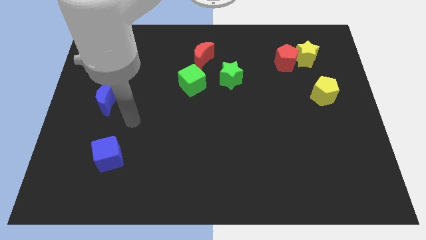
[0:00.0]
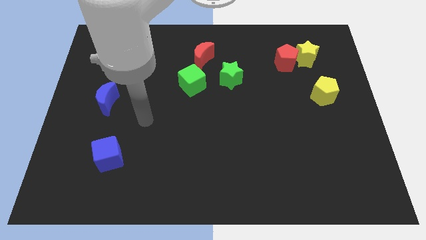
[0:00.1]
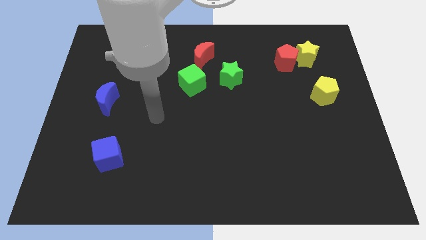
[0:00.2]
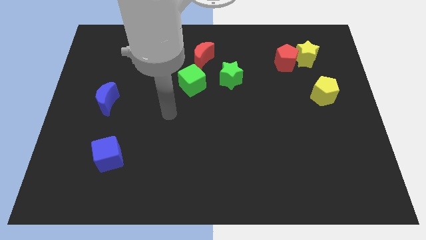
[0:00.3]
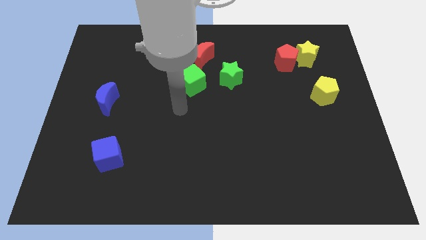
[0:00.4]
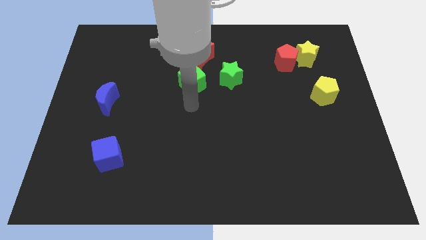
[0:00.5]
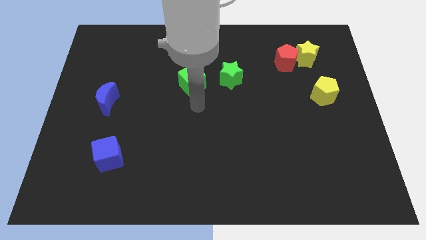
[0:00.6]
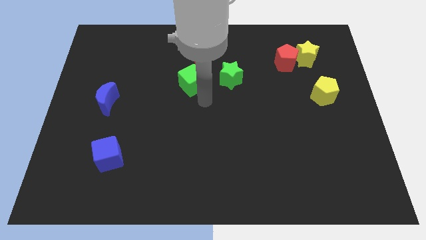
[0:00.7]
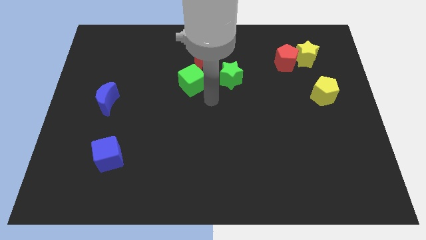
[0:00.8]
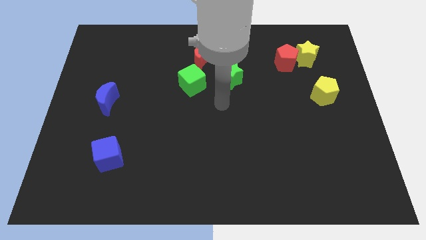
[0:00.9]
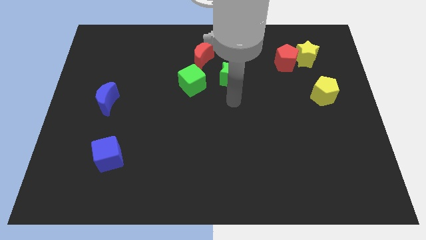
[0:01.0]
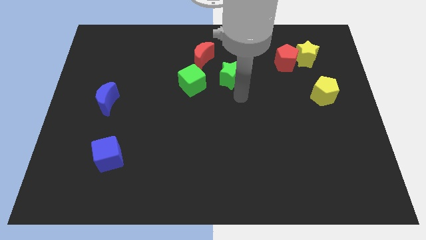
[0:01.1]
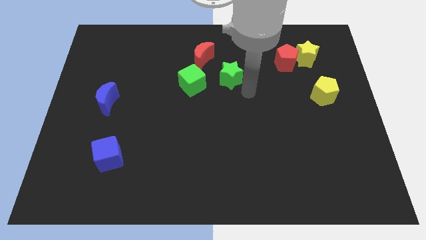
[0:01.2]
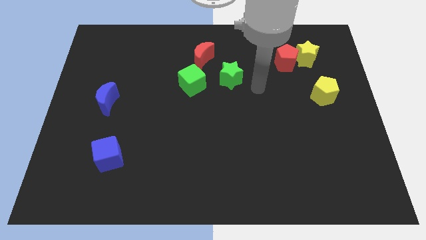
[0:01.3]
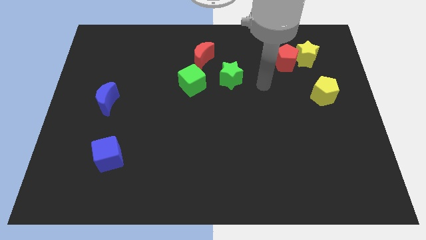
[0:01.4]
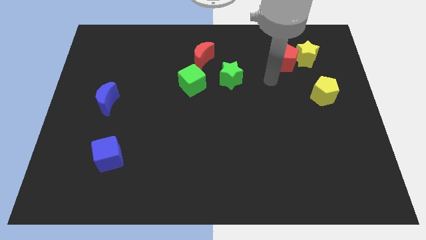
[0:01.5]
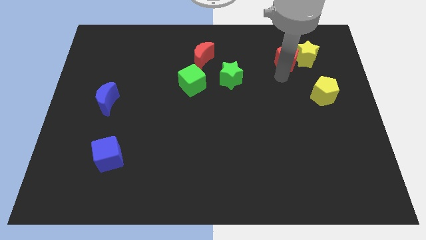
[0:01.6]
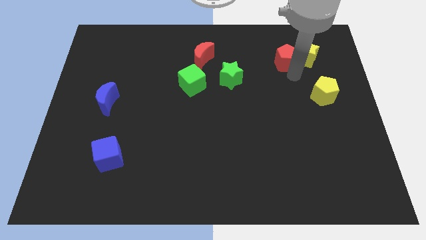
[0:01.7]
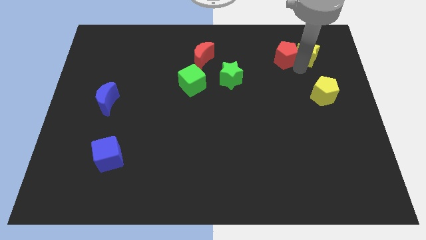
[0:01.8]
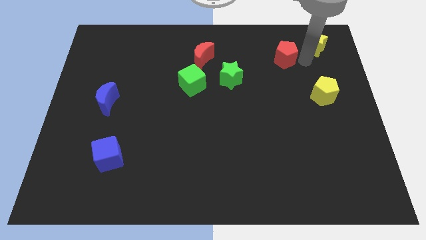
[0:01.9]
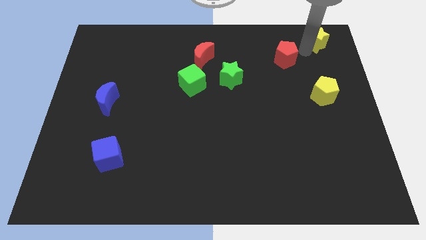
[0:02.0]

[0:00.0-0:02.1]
pull the red pentagon apart from the yellow star

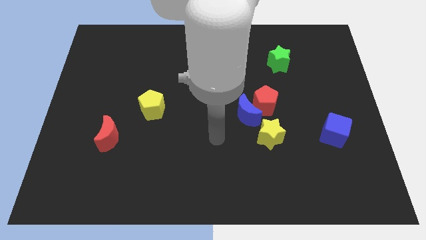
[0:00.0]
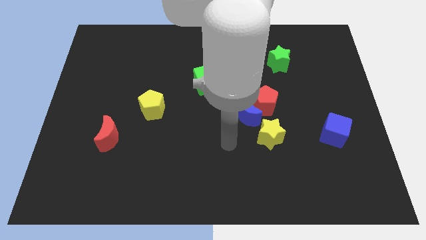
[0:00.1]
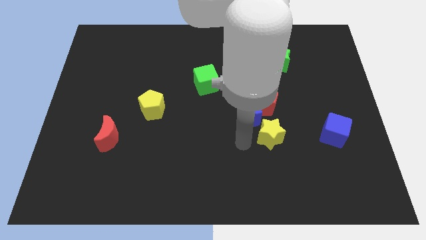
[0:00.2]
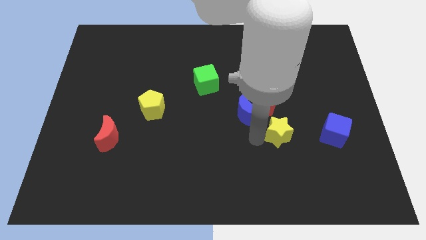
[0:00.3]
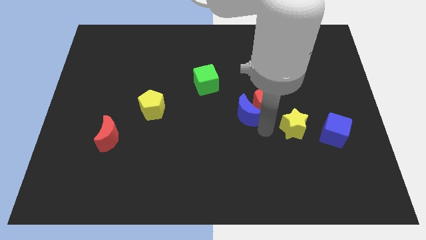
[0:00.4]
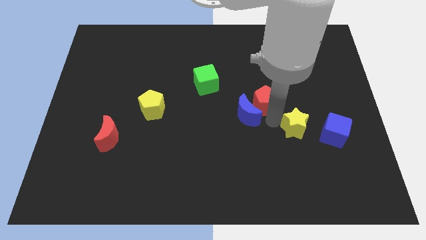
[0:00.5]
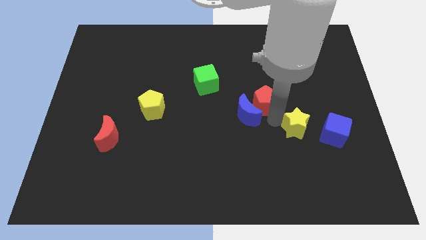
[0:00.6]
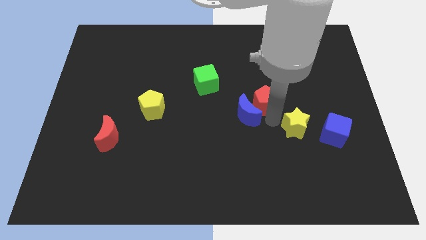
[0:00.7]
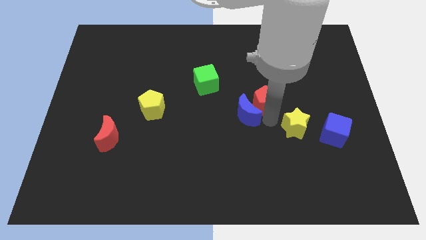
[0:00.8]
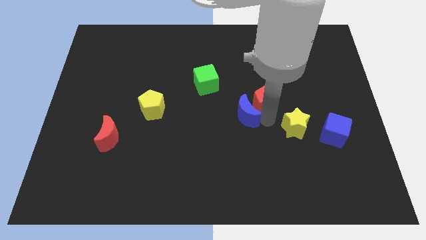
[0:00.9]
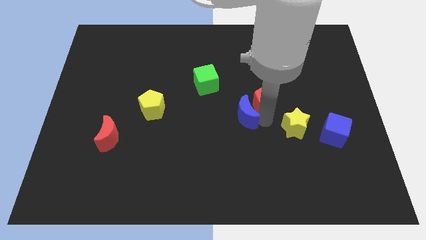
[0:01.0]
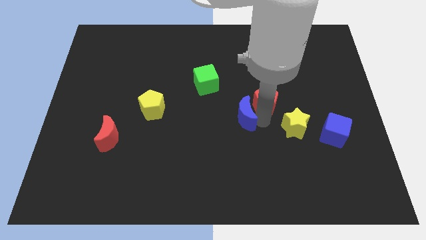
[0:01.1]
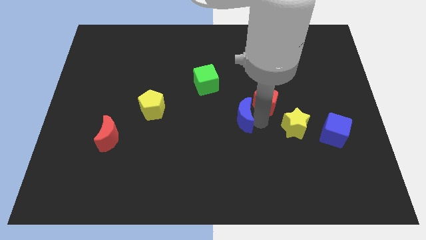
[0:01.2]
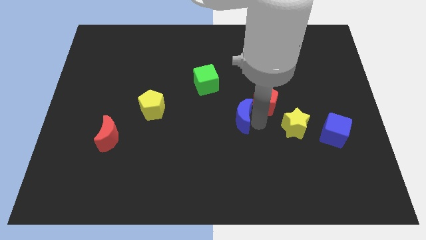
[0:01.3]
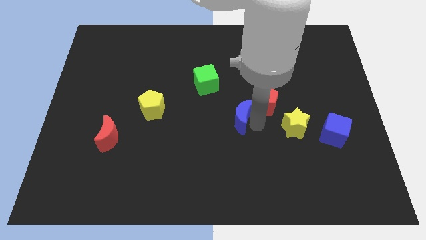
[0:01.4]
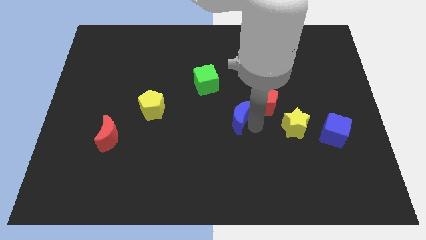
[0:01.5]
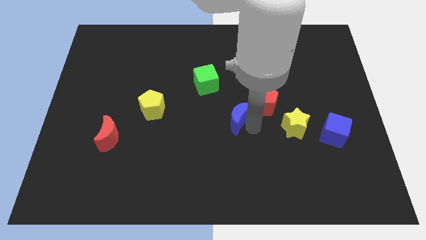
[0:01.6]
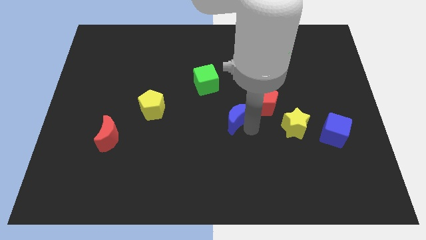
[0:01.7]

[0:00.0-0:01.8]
separate the blue moon from the red pentagon and yellow star

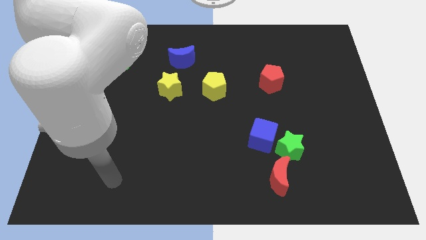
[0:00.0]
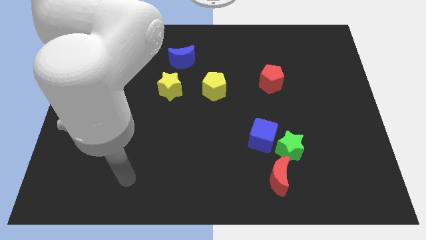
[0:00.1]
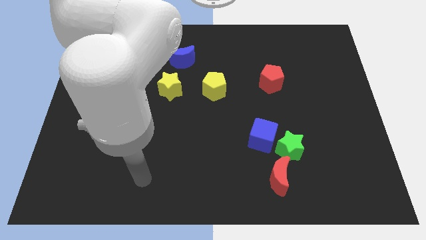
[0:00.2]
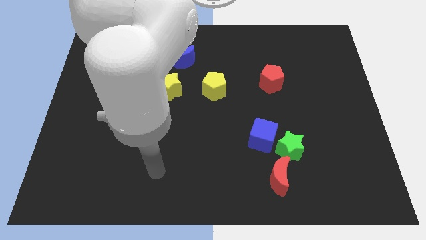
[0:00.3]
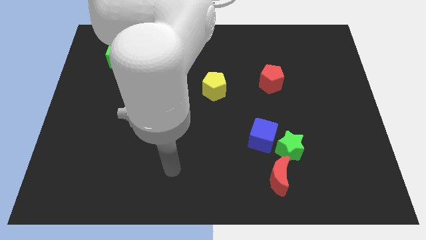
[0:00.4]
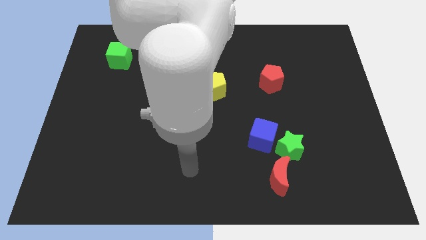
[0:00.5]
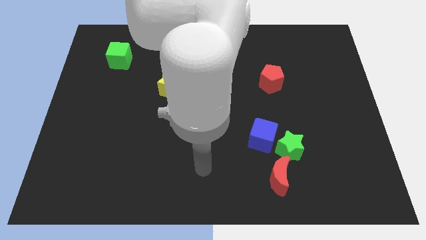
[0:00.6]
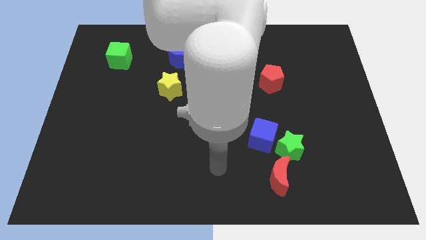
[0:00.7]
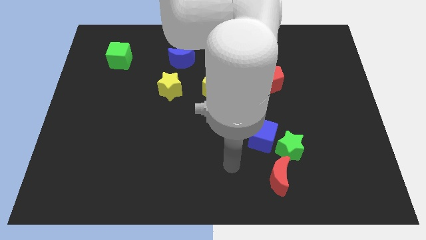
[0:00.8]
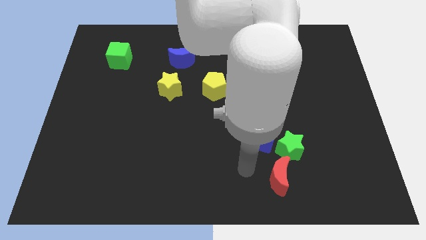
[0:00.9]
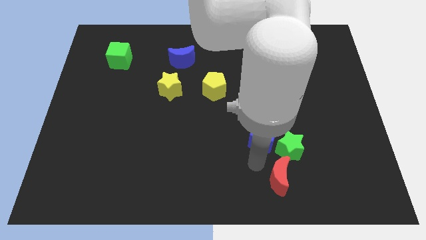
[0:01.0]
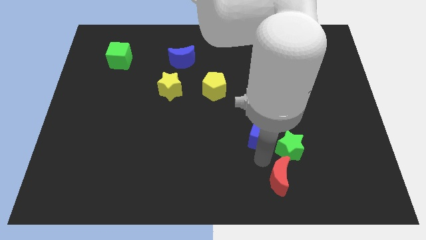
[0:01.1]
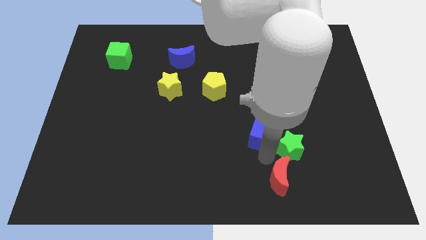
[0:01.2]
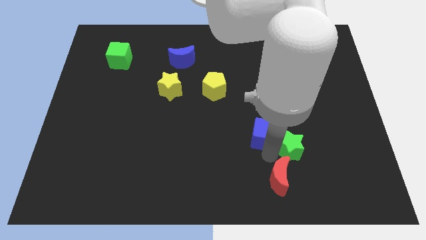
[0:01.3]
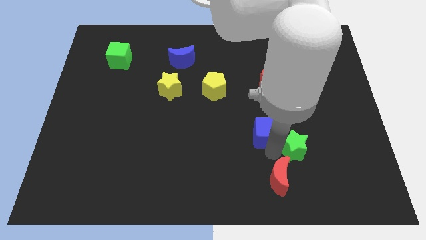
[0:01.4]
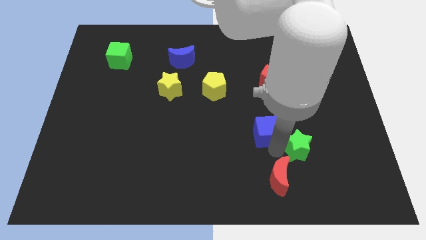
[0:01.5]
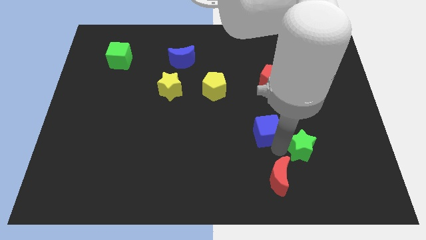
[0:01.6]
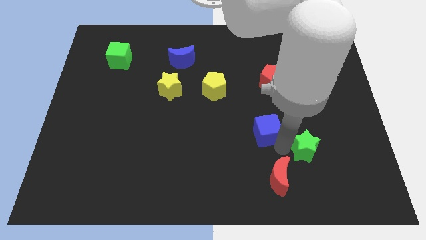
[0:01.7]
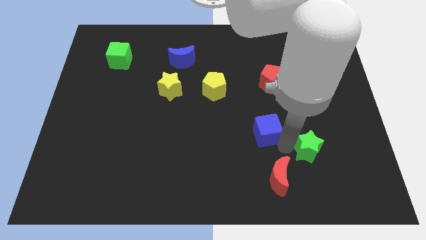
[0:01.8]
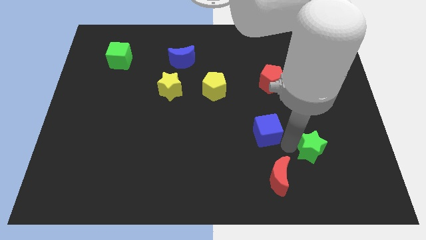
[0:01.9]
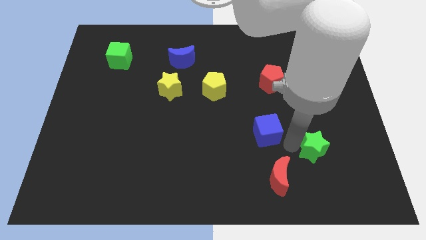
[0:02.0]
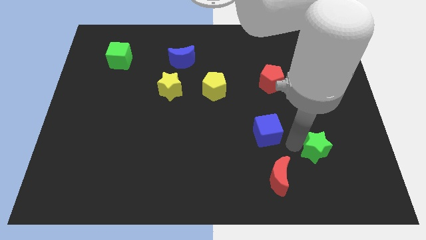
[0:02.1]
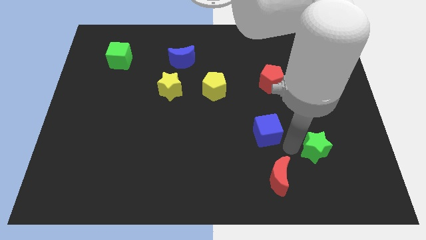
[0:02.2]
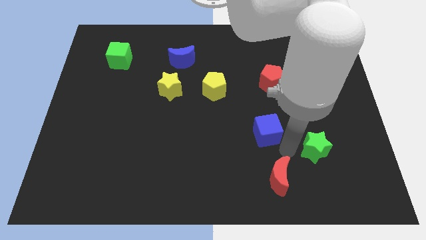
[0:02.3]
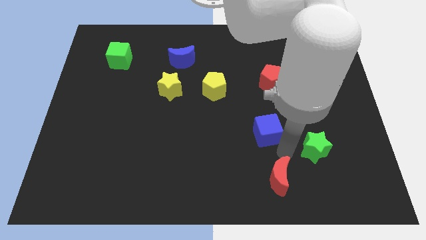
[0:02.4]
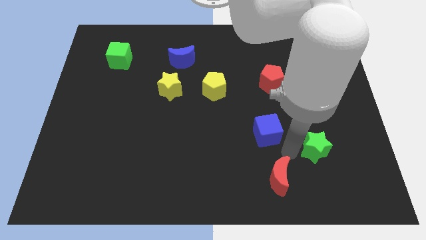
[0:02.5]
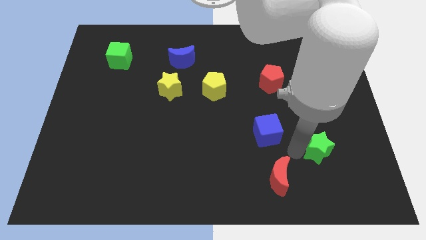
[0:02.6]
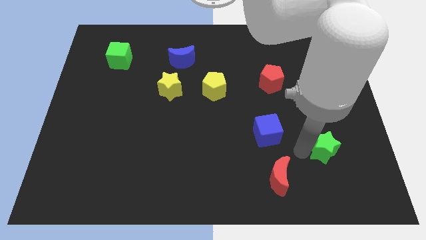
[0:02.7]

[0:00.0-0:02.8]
separate the green star from the blue cube and red moon

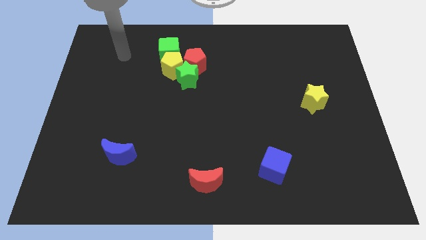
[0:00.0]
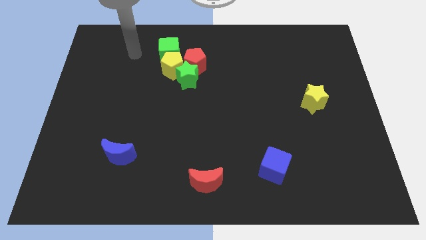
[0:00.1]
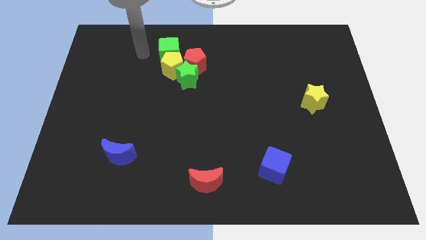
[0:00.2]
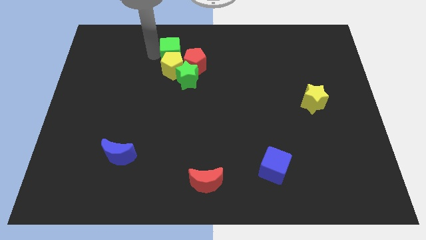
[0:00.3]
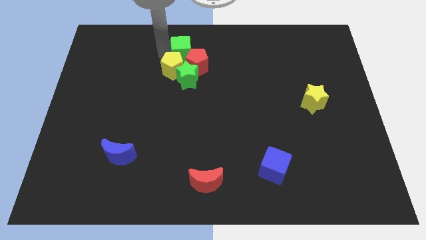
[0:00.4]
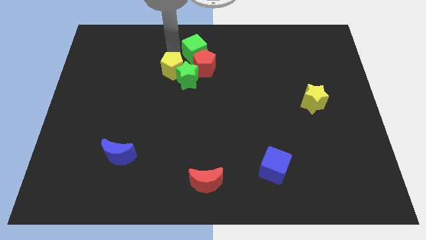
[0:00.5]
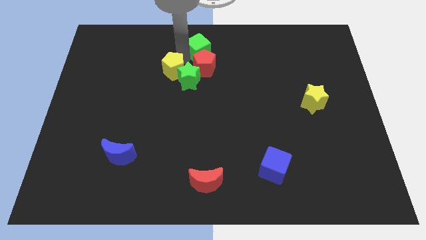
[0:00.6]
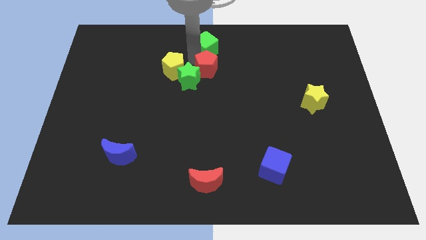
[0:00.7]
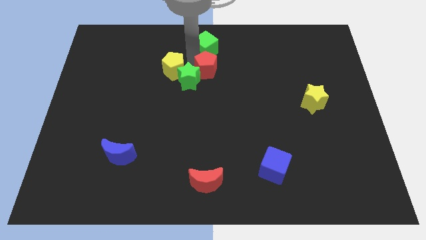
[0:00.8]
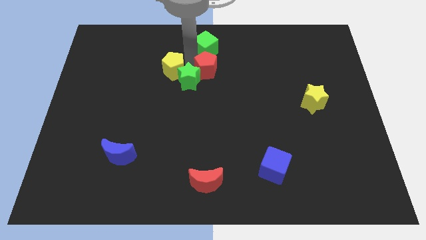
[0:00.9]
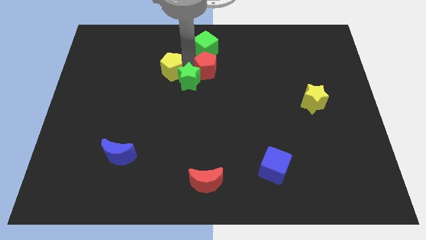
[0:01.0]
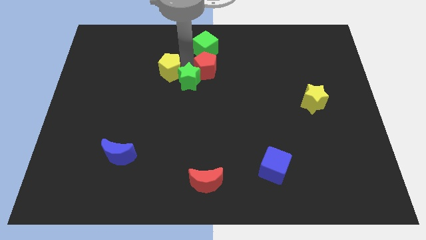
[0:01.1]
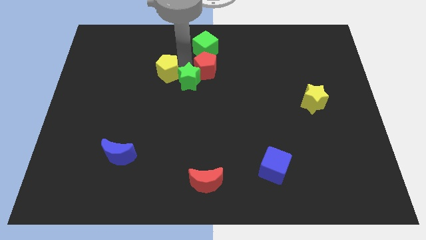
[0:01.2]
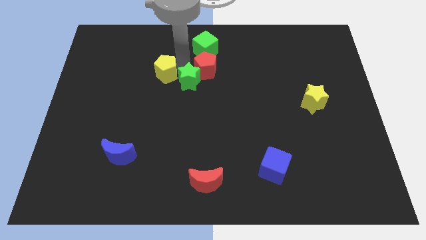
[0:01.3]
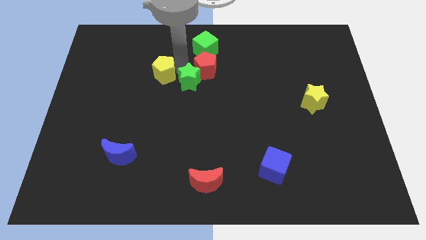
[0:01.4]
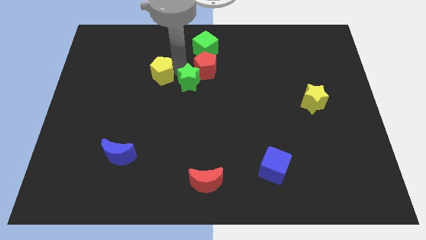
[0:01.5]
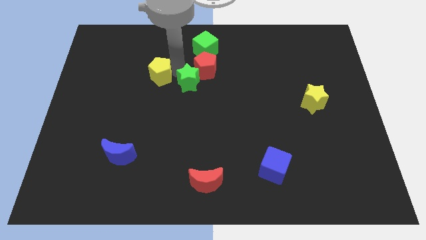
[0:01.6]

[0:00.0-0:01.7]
move the yellow pentagon away from the group of blocks

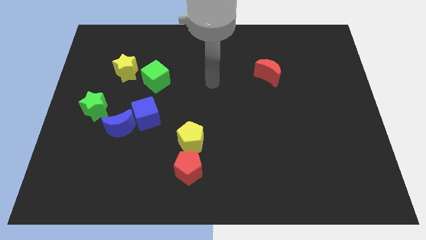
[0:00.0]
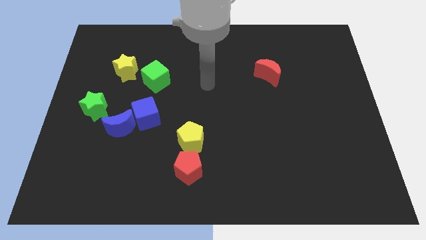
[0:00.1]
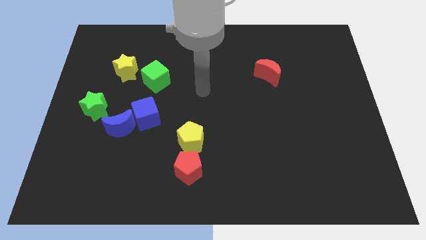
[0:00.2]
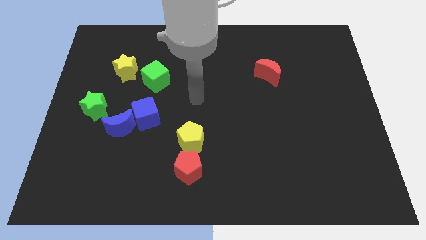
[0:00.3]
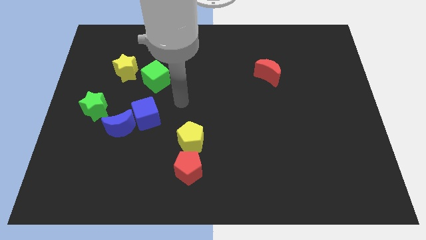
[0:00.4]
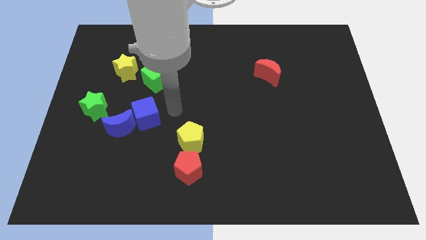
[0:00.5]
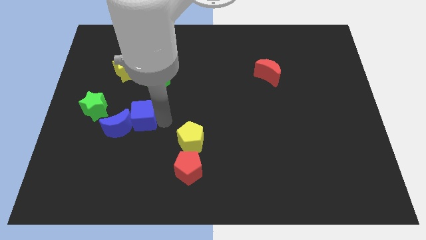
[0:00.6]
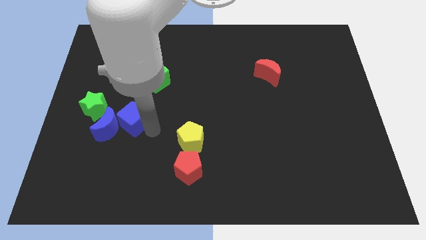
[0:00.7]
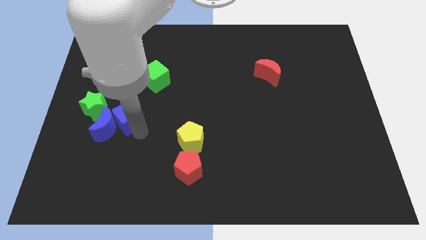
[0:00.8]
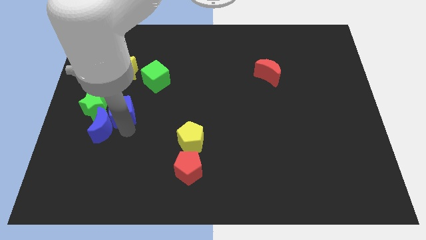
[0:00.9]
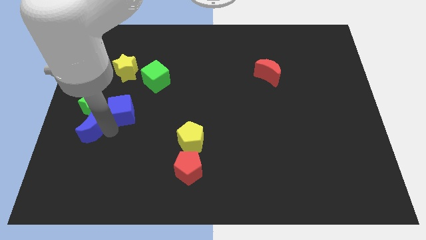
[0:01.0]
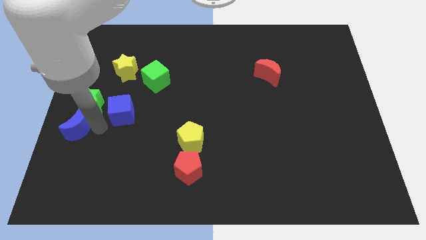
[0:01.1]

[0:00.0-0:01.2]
separate the blue cube from the blue moon
